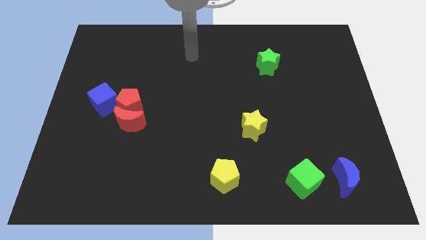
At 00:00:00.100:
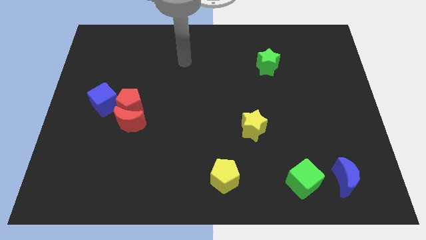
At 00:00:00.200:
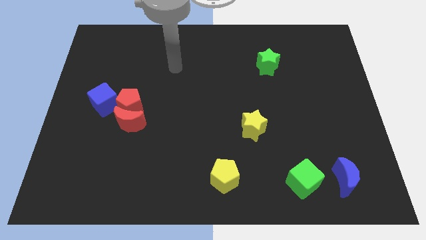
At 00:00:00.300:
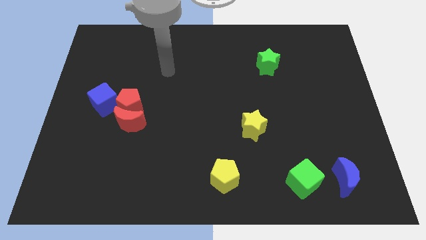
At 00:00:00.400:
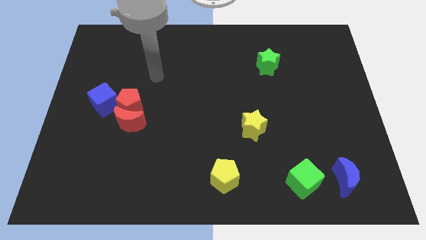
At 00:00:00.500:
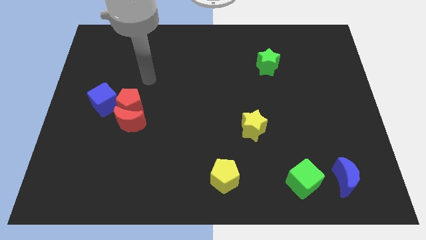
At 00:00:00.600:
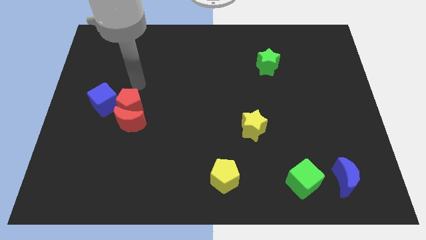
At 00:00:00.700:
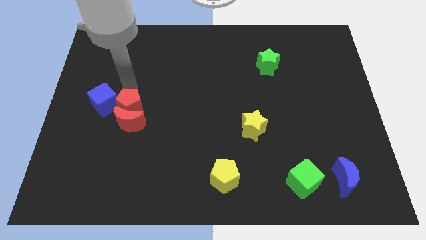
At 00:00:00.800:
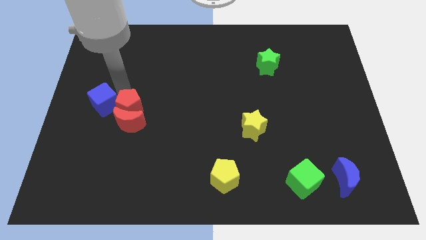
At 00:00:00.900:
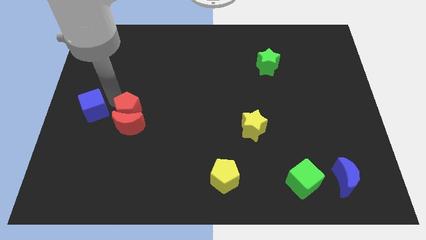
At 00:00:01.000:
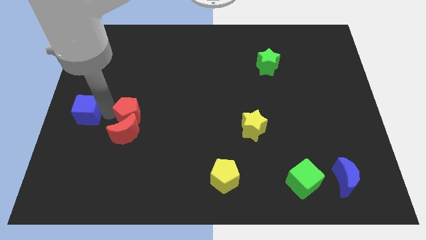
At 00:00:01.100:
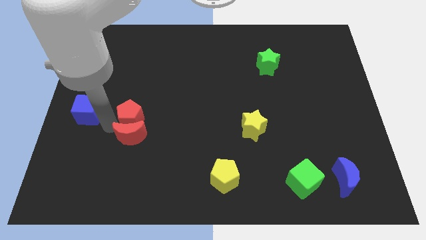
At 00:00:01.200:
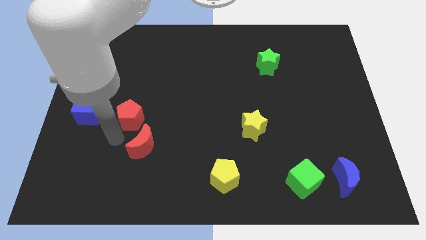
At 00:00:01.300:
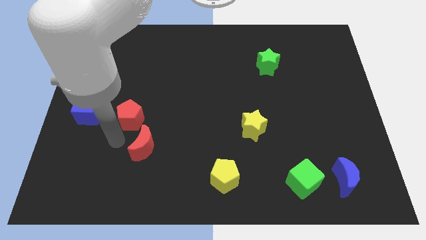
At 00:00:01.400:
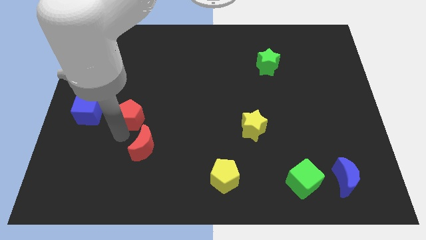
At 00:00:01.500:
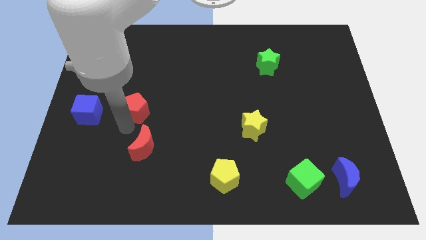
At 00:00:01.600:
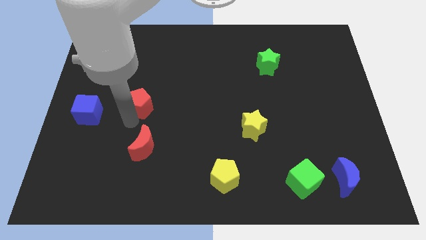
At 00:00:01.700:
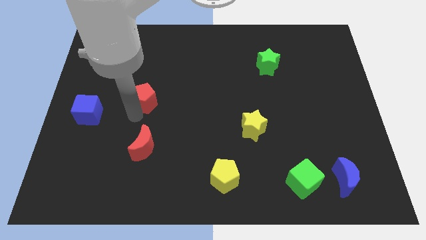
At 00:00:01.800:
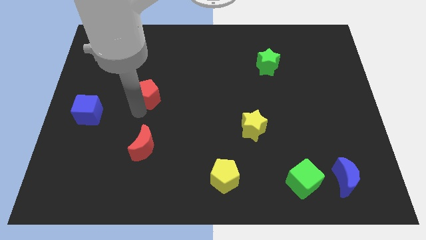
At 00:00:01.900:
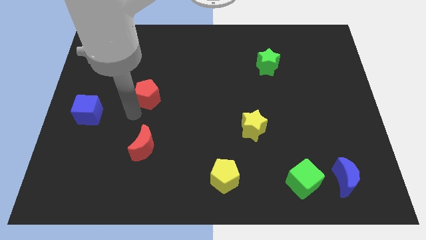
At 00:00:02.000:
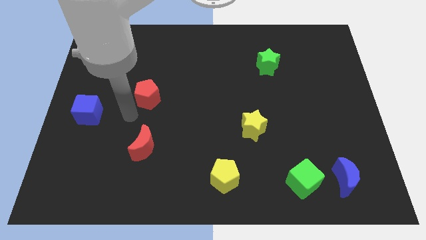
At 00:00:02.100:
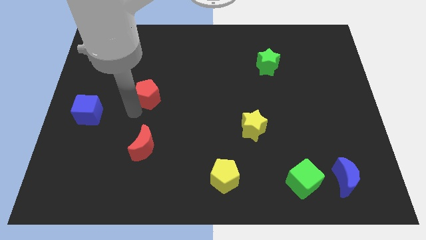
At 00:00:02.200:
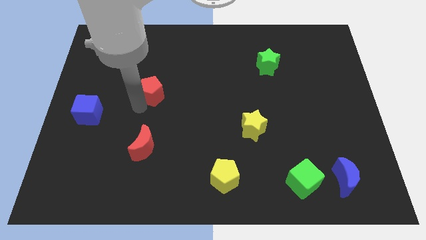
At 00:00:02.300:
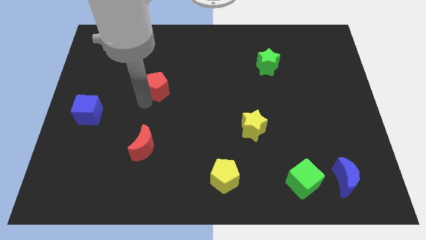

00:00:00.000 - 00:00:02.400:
slide the red pentagon up and right slightly

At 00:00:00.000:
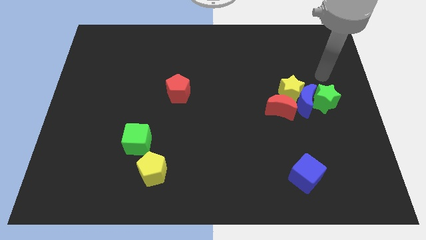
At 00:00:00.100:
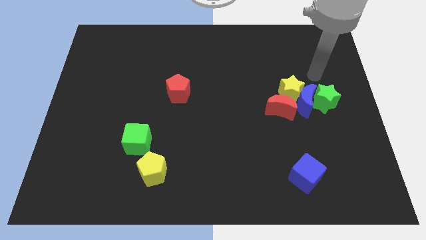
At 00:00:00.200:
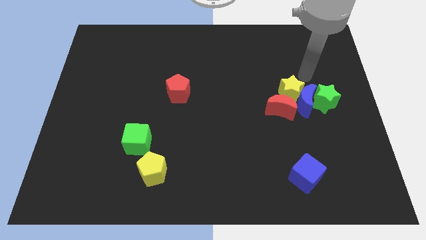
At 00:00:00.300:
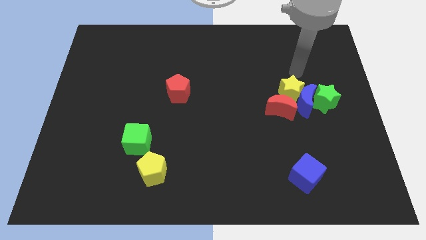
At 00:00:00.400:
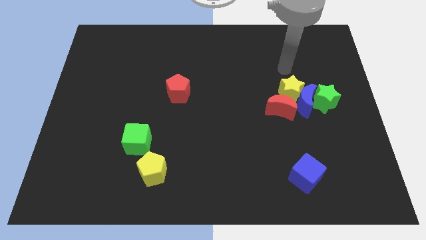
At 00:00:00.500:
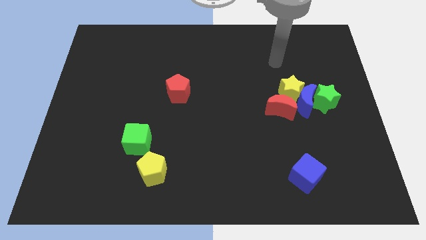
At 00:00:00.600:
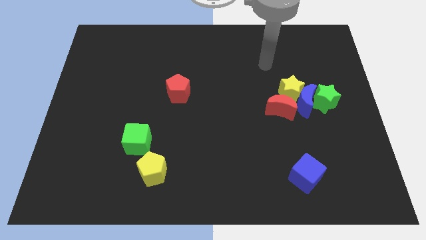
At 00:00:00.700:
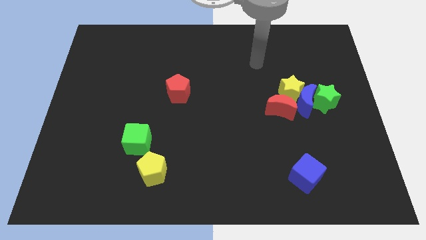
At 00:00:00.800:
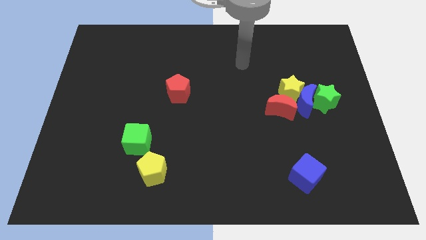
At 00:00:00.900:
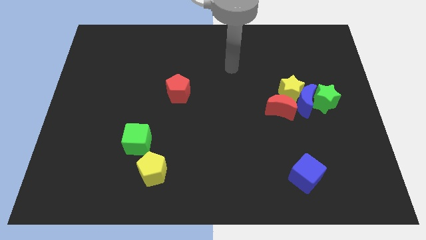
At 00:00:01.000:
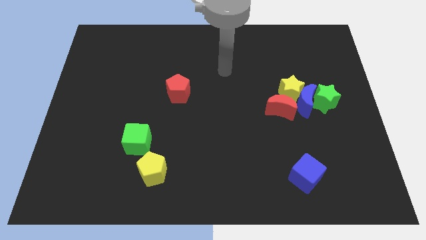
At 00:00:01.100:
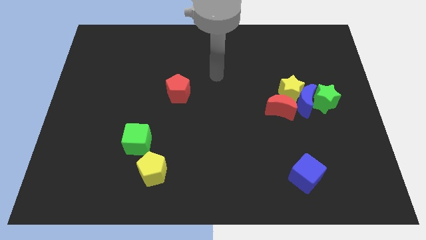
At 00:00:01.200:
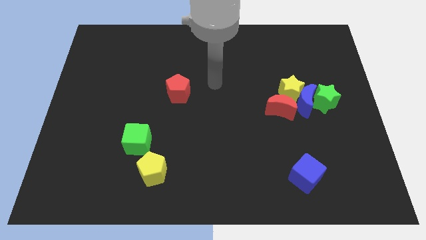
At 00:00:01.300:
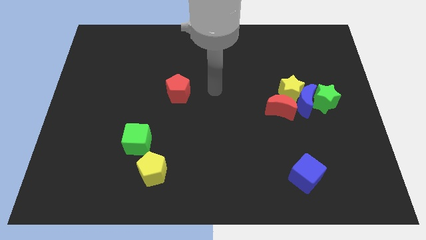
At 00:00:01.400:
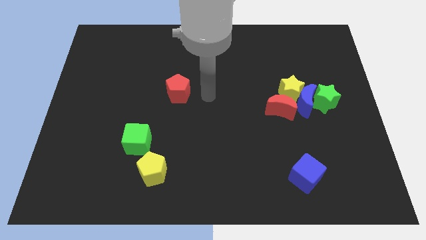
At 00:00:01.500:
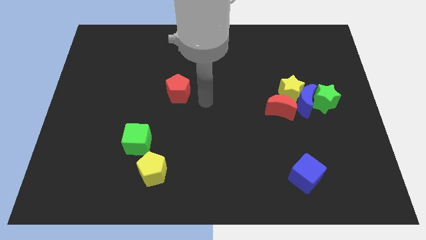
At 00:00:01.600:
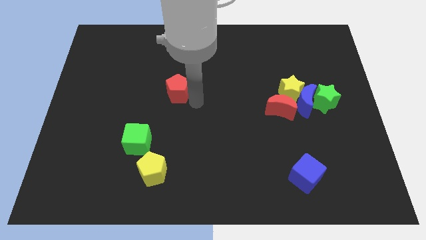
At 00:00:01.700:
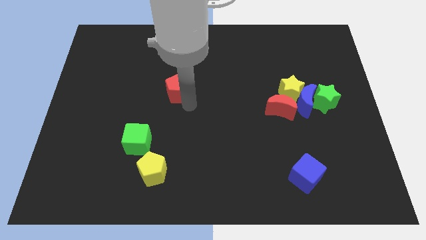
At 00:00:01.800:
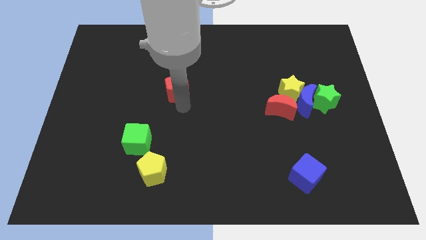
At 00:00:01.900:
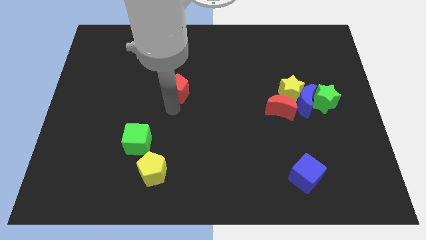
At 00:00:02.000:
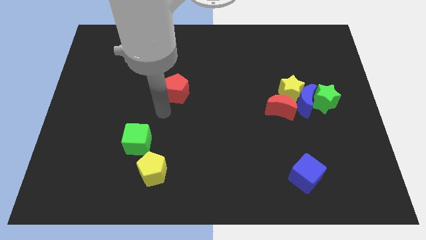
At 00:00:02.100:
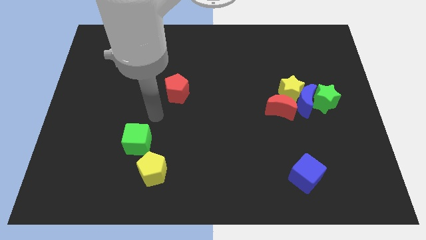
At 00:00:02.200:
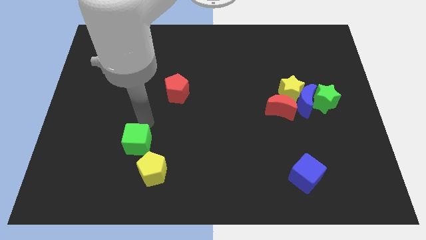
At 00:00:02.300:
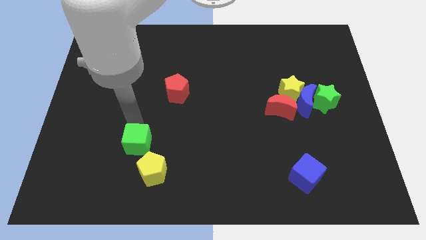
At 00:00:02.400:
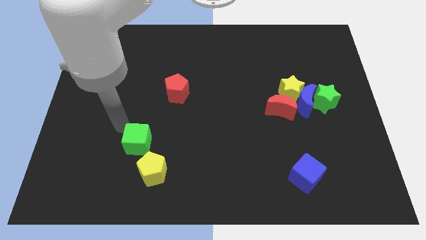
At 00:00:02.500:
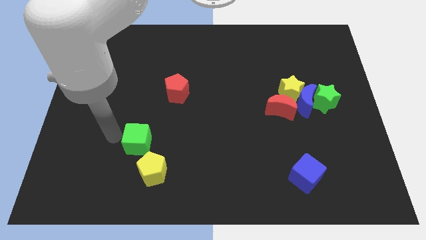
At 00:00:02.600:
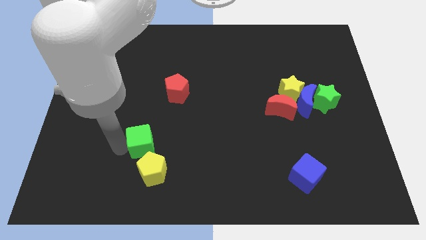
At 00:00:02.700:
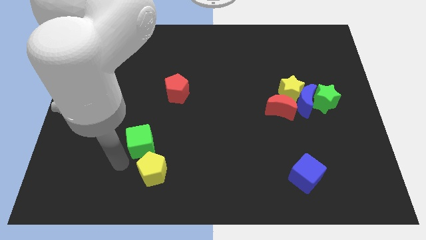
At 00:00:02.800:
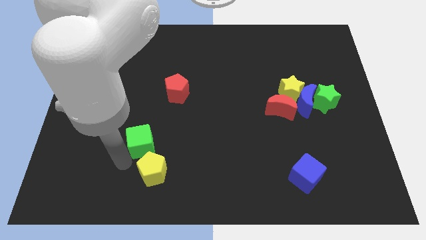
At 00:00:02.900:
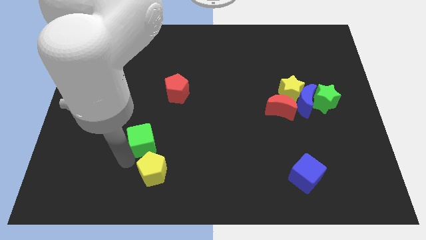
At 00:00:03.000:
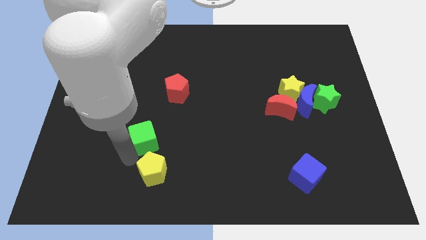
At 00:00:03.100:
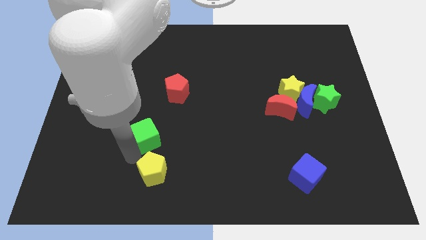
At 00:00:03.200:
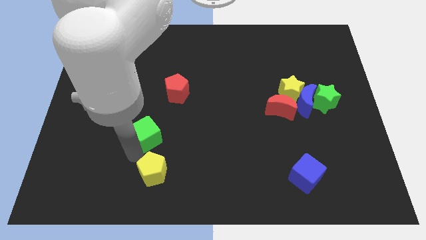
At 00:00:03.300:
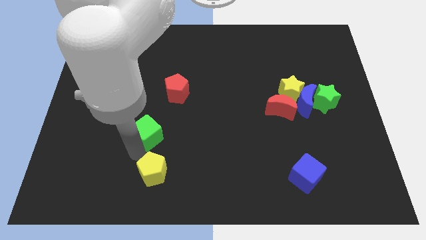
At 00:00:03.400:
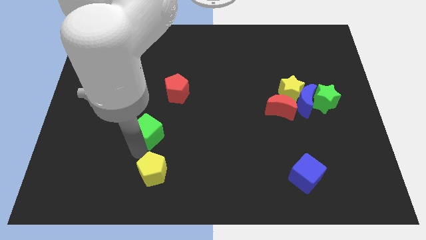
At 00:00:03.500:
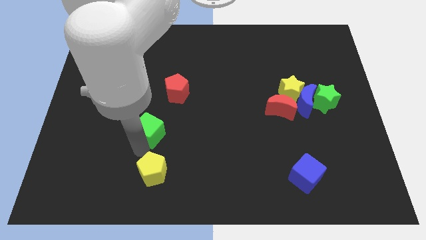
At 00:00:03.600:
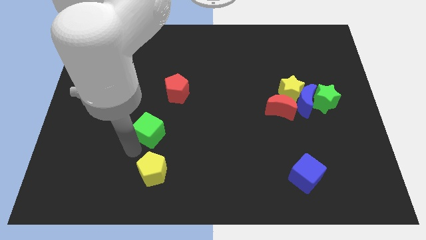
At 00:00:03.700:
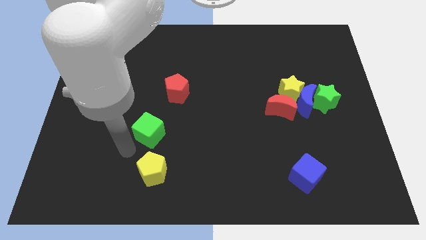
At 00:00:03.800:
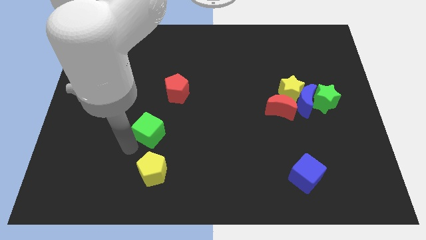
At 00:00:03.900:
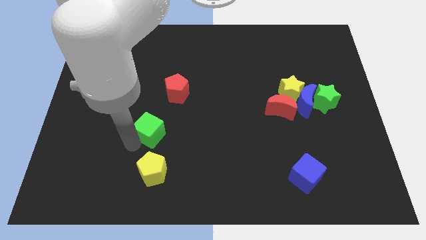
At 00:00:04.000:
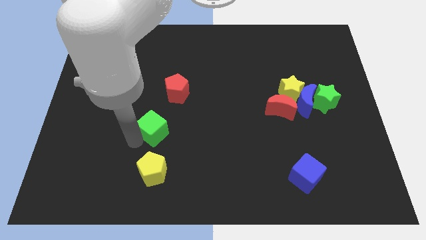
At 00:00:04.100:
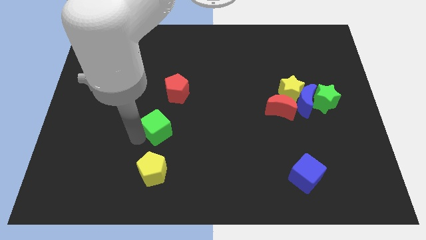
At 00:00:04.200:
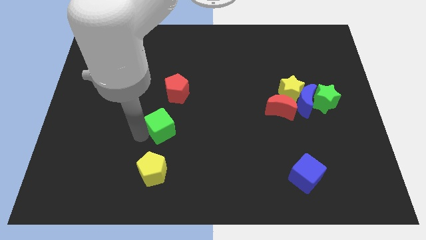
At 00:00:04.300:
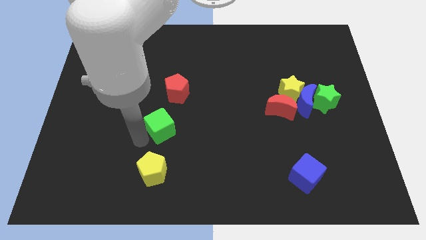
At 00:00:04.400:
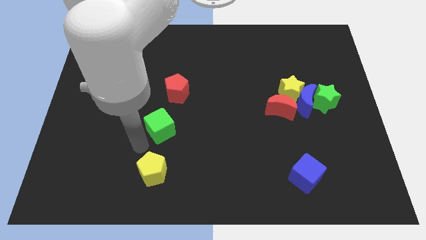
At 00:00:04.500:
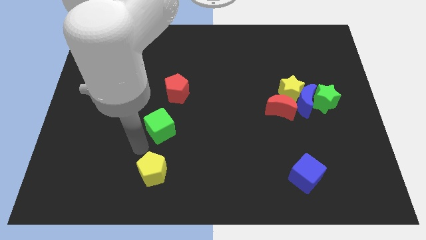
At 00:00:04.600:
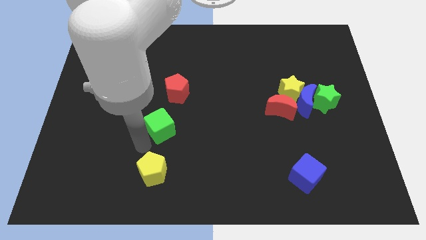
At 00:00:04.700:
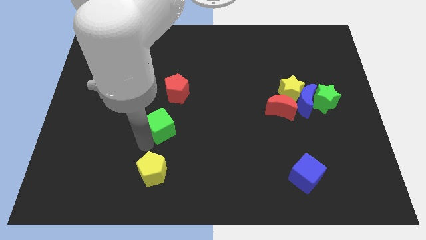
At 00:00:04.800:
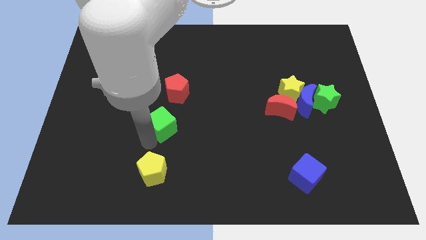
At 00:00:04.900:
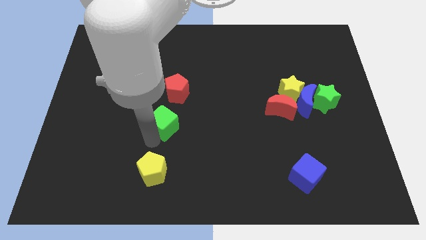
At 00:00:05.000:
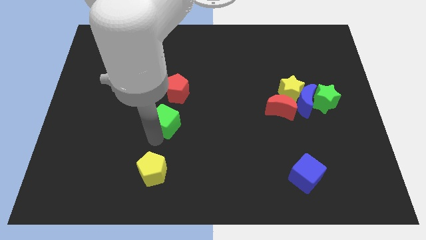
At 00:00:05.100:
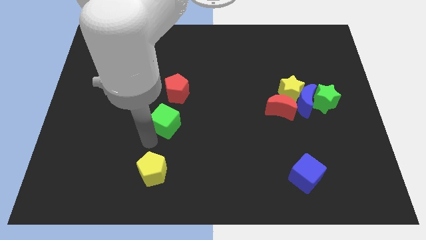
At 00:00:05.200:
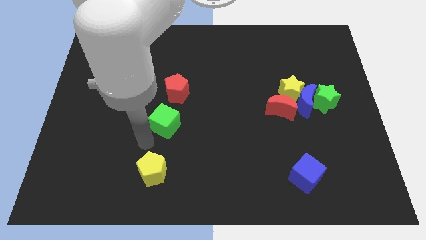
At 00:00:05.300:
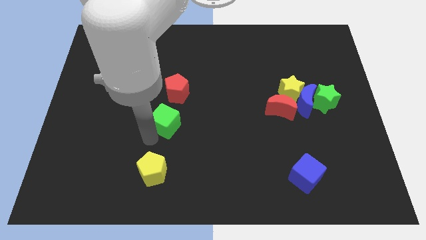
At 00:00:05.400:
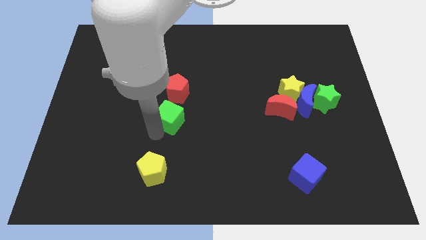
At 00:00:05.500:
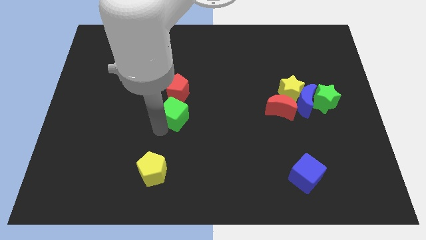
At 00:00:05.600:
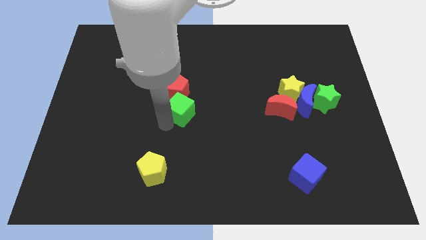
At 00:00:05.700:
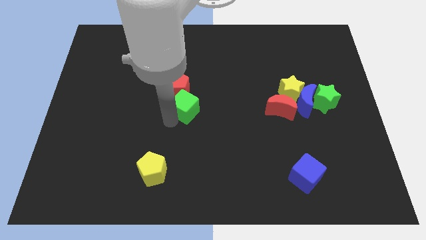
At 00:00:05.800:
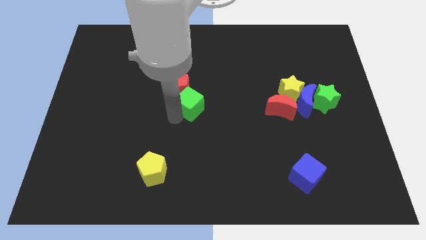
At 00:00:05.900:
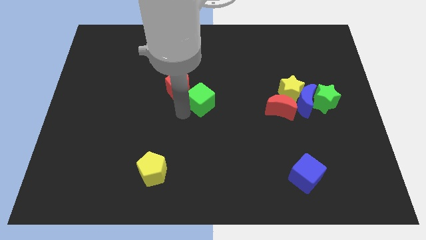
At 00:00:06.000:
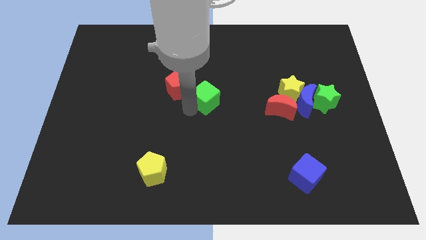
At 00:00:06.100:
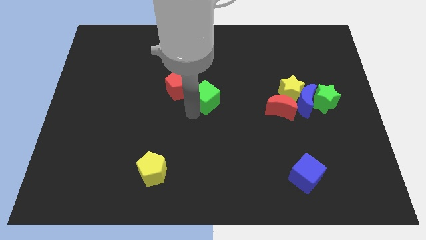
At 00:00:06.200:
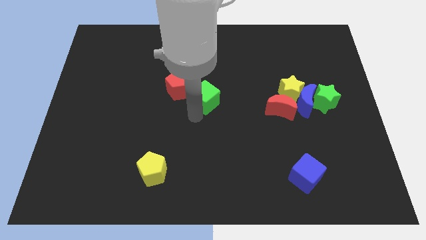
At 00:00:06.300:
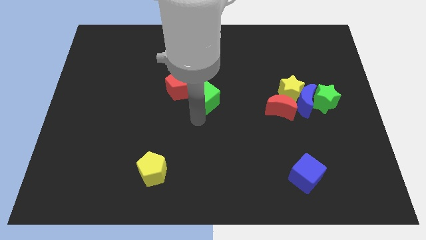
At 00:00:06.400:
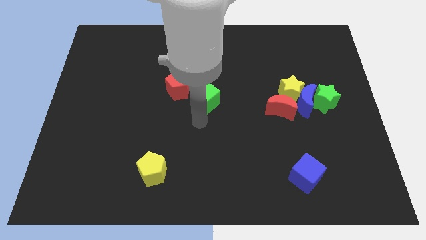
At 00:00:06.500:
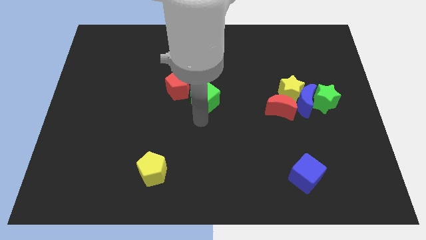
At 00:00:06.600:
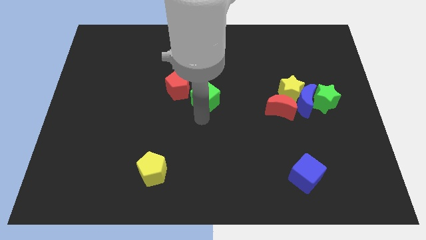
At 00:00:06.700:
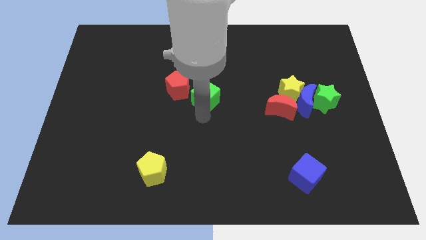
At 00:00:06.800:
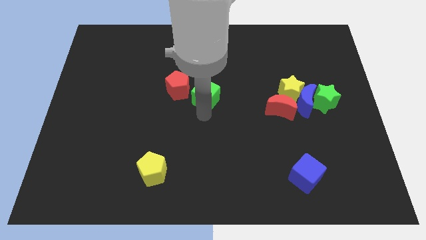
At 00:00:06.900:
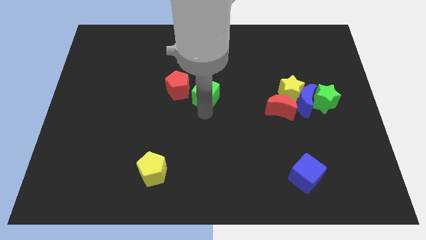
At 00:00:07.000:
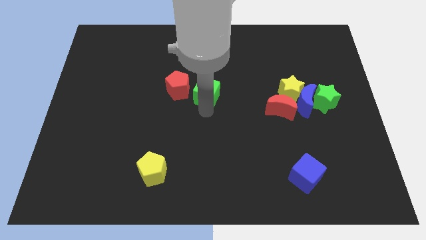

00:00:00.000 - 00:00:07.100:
move the green cube up and to the right
